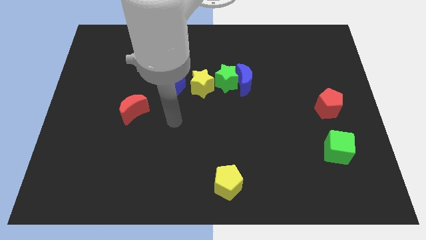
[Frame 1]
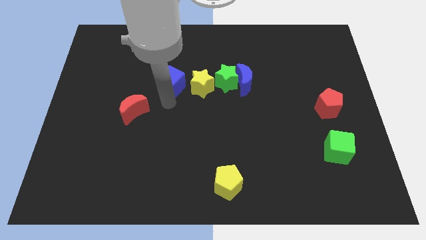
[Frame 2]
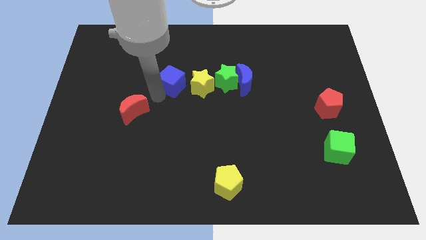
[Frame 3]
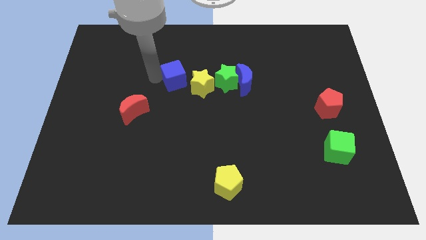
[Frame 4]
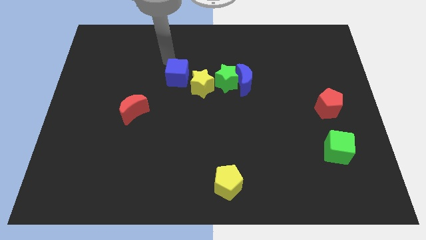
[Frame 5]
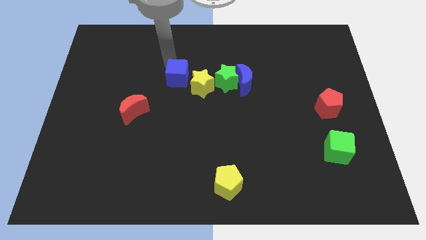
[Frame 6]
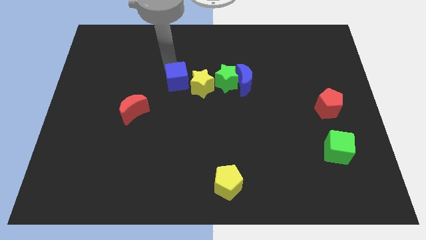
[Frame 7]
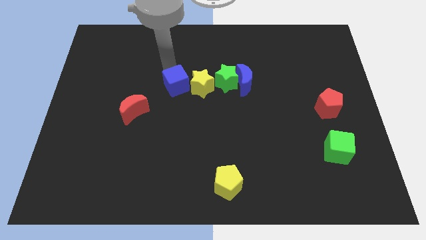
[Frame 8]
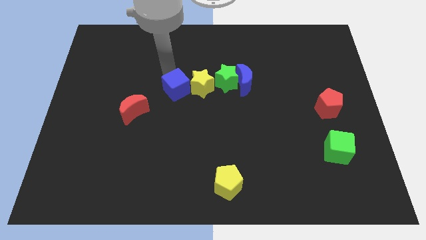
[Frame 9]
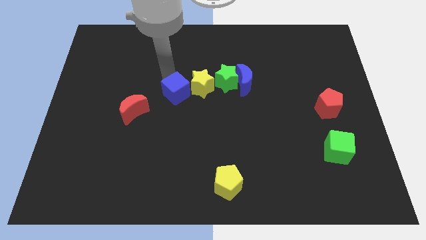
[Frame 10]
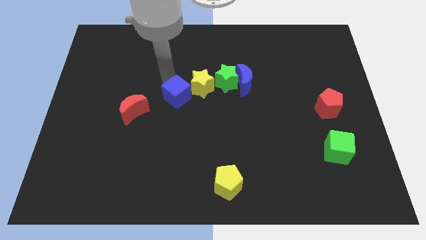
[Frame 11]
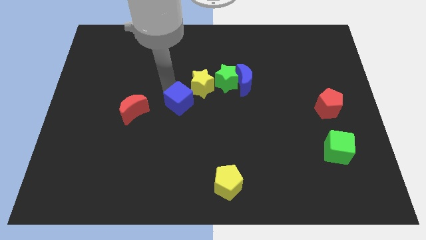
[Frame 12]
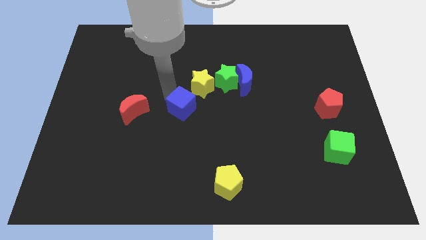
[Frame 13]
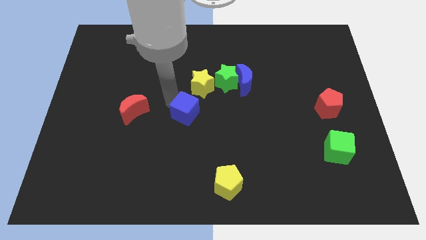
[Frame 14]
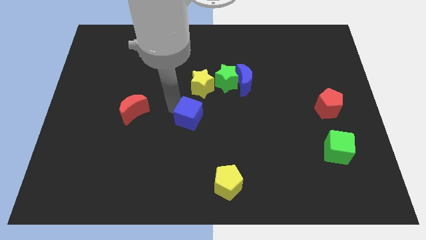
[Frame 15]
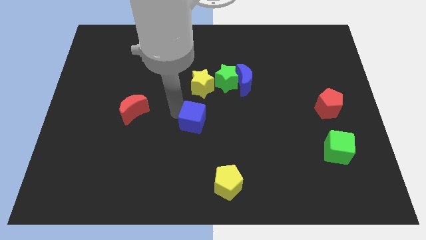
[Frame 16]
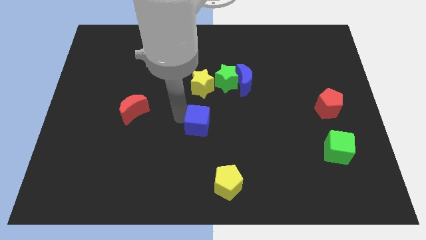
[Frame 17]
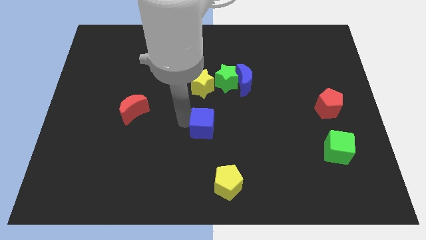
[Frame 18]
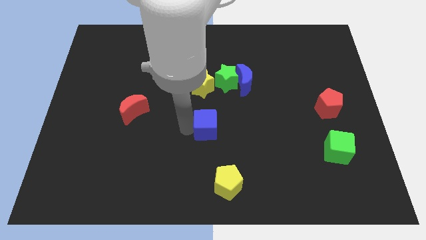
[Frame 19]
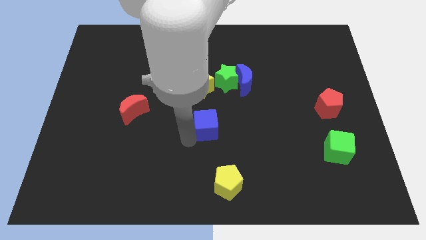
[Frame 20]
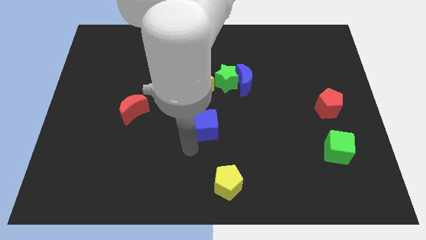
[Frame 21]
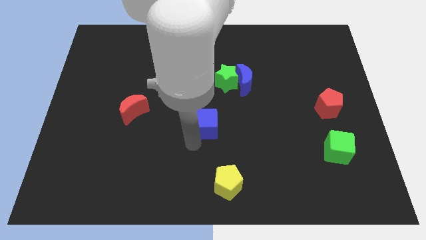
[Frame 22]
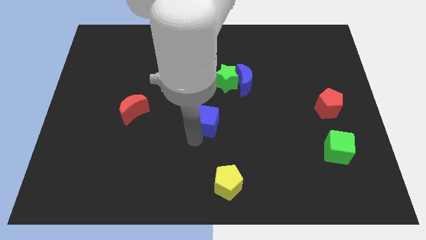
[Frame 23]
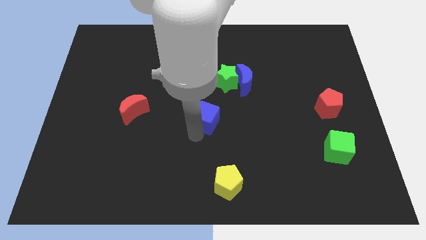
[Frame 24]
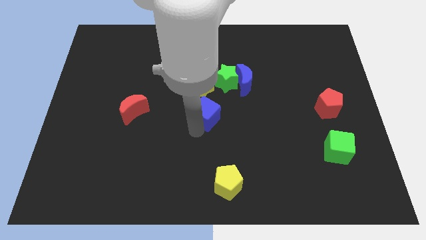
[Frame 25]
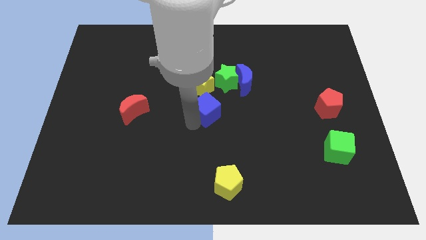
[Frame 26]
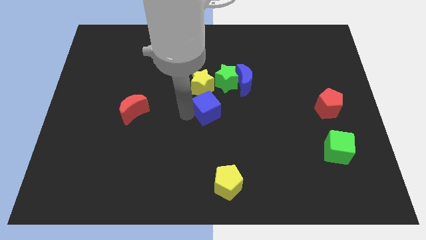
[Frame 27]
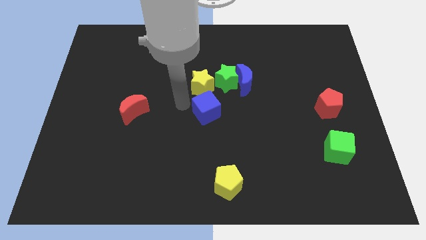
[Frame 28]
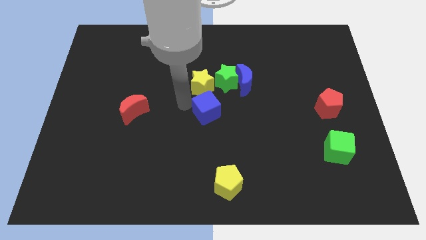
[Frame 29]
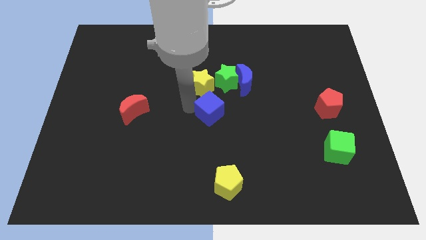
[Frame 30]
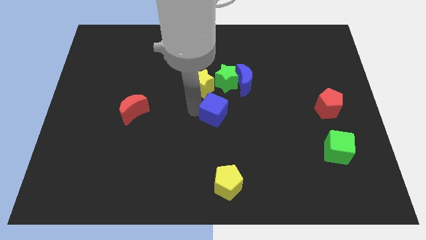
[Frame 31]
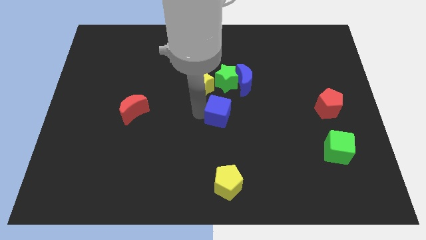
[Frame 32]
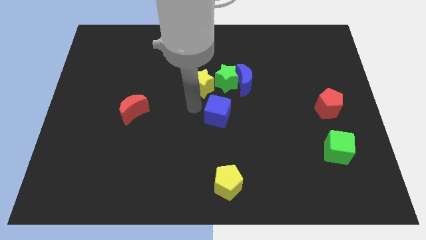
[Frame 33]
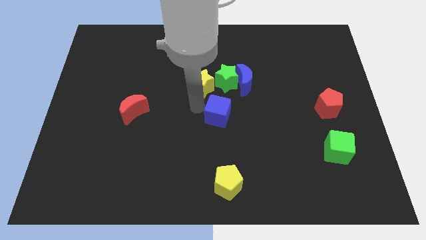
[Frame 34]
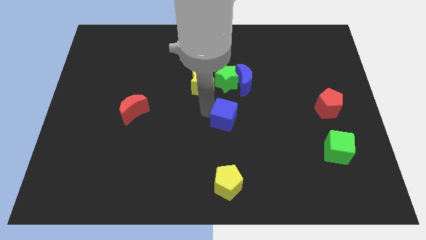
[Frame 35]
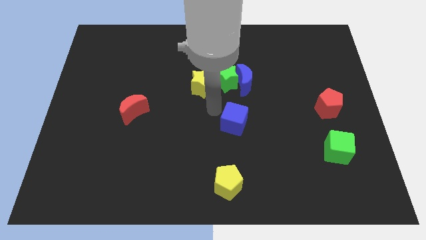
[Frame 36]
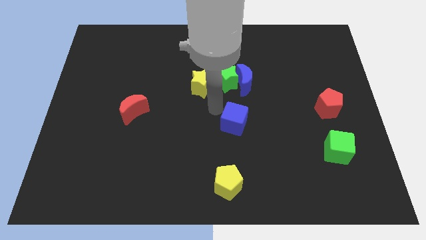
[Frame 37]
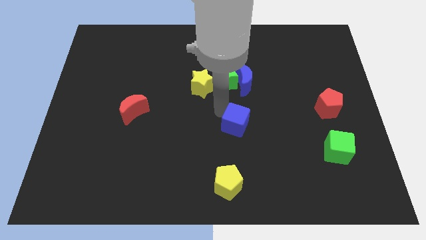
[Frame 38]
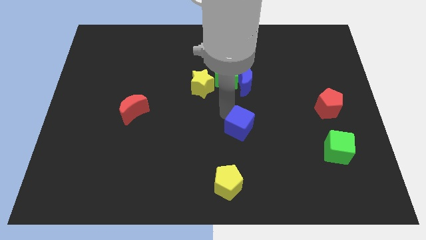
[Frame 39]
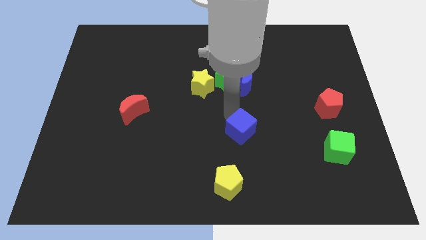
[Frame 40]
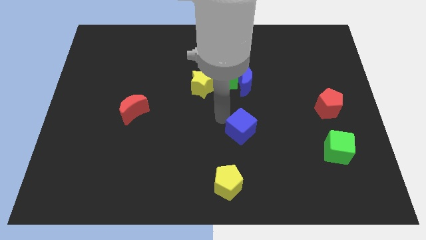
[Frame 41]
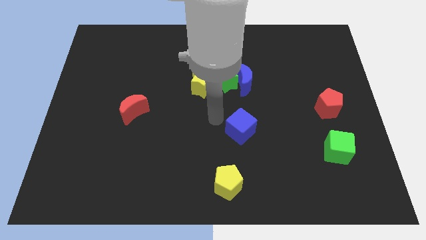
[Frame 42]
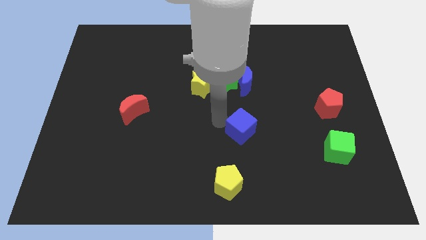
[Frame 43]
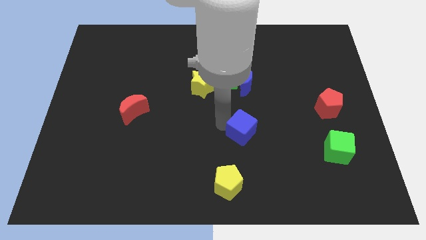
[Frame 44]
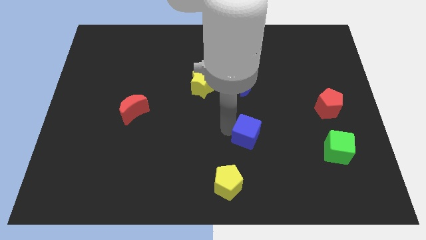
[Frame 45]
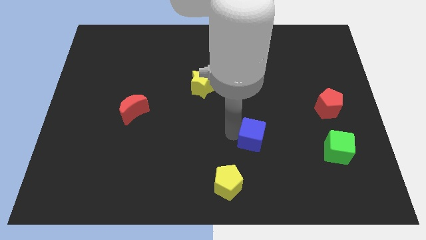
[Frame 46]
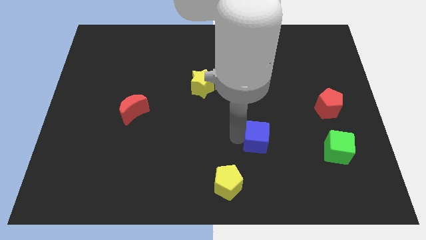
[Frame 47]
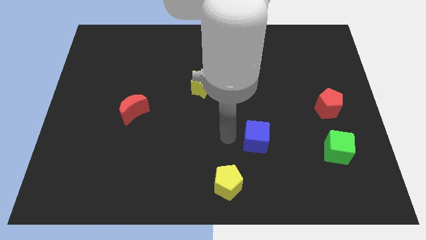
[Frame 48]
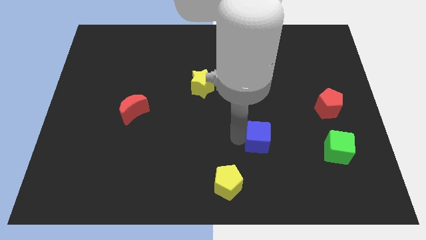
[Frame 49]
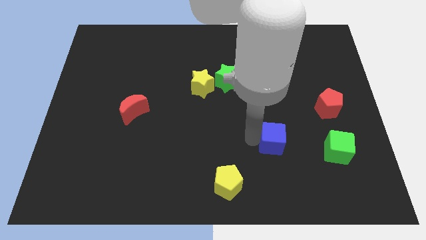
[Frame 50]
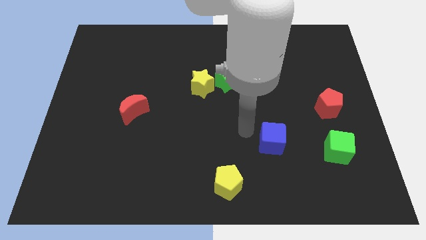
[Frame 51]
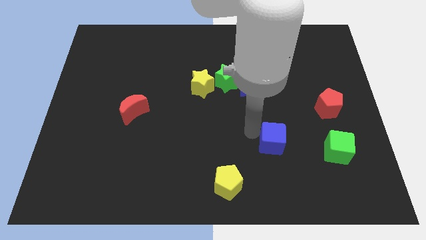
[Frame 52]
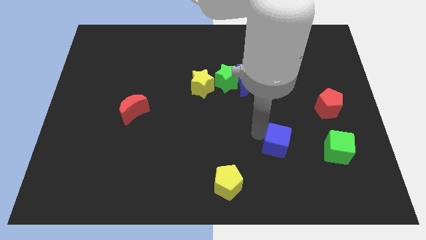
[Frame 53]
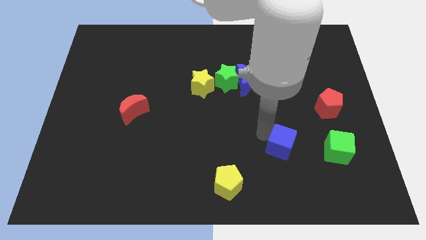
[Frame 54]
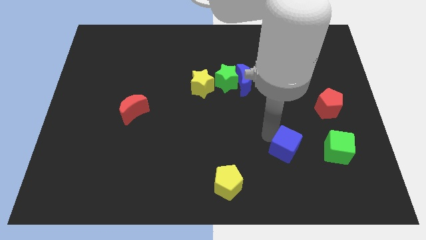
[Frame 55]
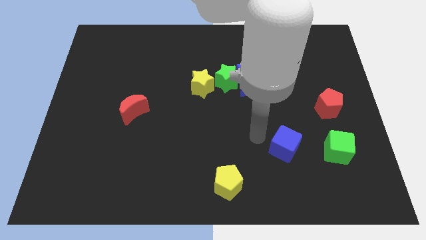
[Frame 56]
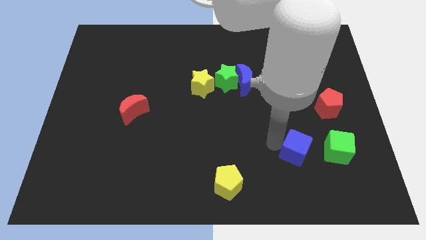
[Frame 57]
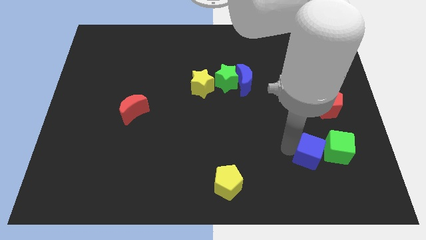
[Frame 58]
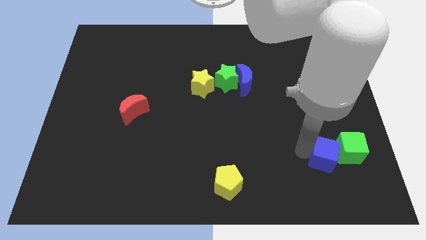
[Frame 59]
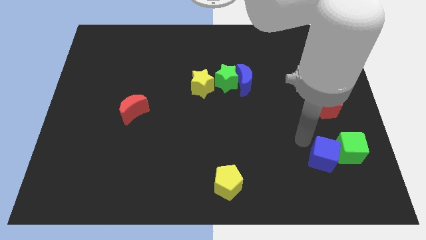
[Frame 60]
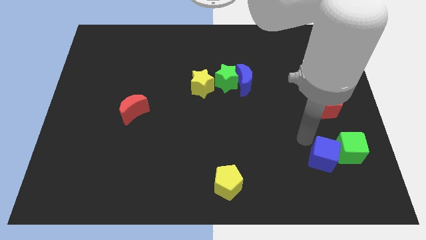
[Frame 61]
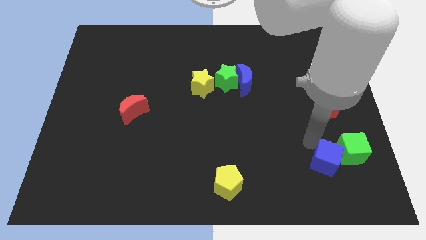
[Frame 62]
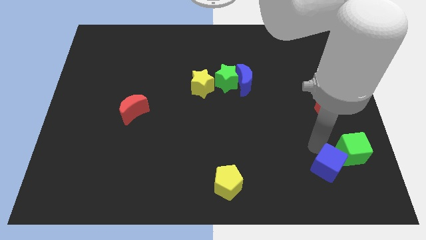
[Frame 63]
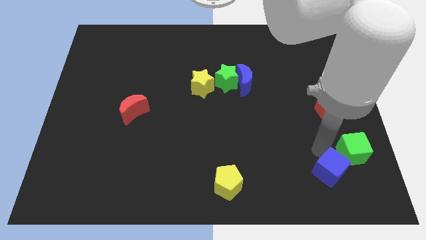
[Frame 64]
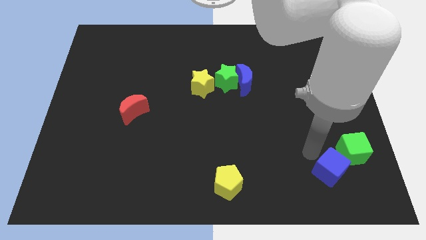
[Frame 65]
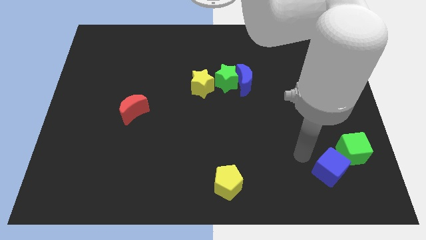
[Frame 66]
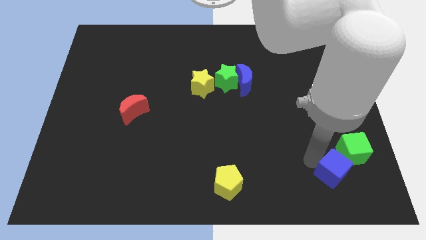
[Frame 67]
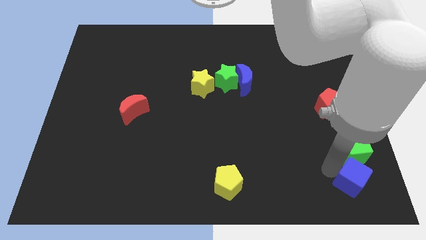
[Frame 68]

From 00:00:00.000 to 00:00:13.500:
slide the blue cube to the bottom right
